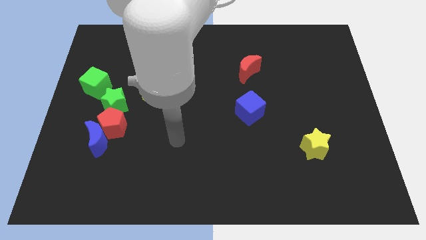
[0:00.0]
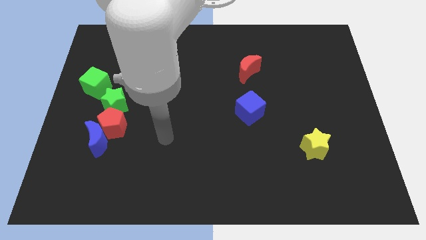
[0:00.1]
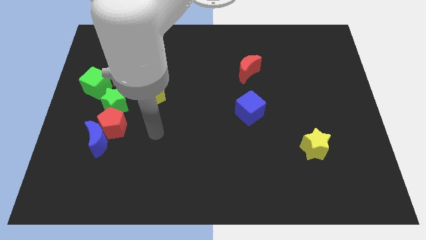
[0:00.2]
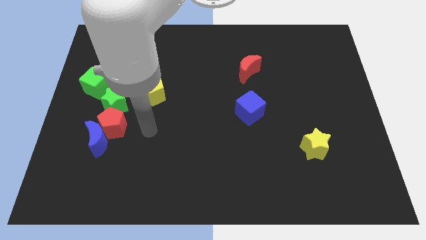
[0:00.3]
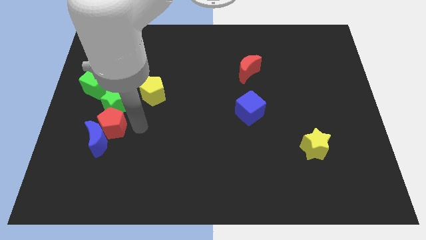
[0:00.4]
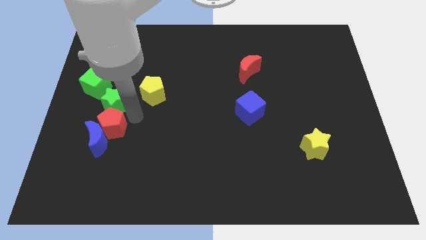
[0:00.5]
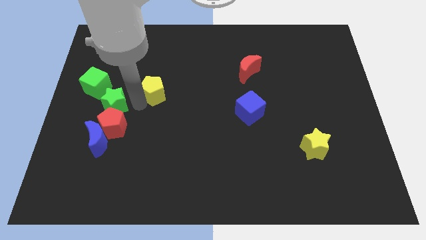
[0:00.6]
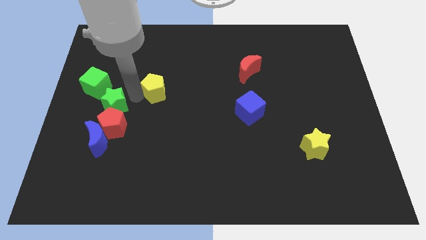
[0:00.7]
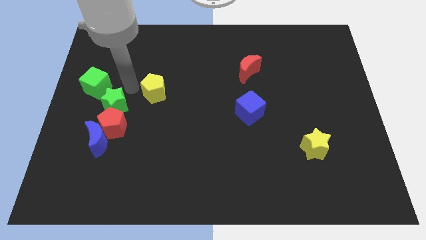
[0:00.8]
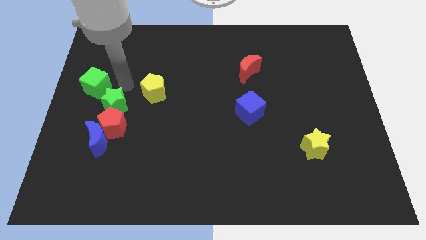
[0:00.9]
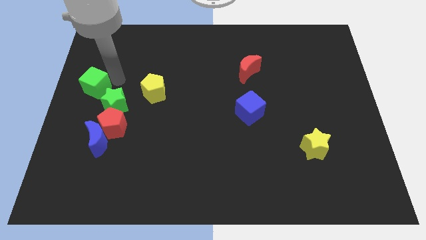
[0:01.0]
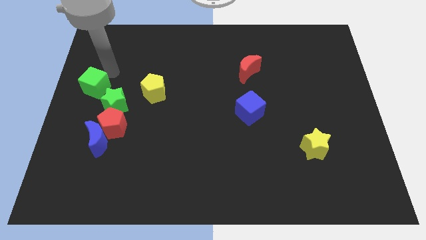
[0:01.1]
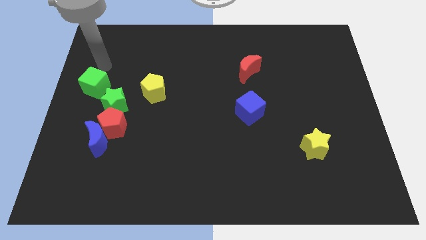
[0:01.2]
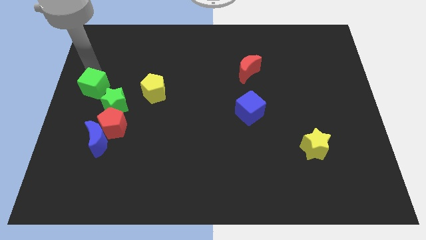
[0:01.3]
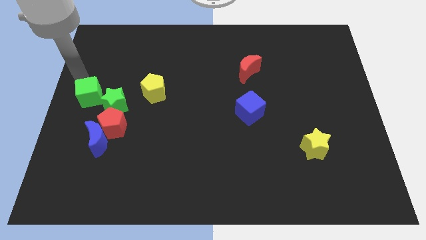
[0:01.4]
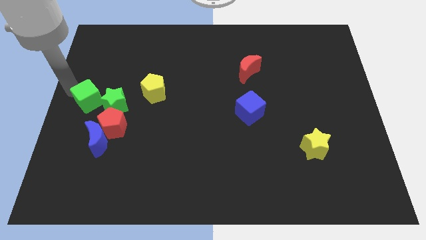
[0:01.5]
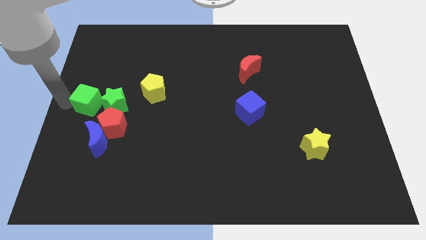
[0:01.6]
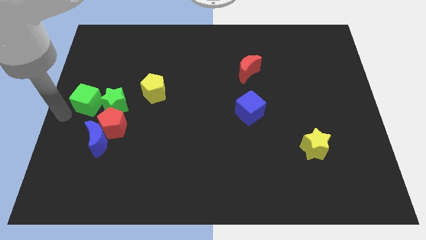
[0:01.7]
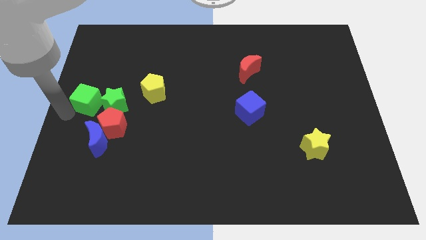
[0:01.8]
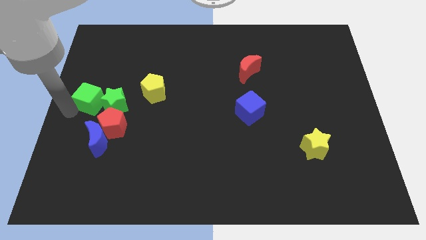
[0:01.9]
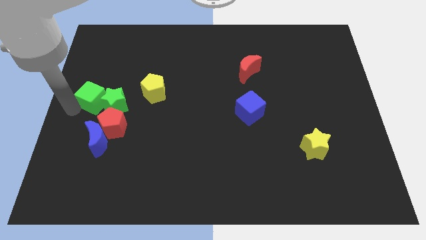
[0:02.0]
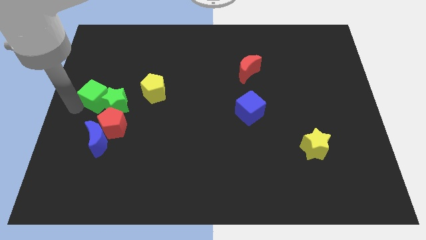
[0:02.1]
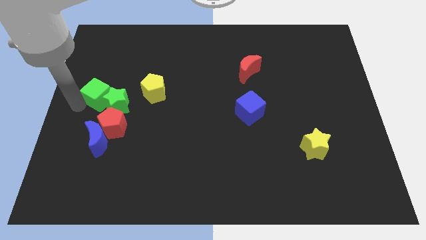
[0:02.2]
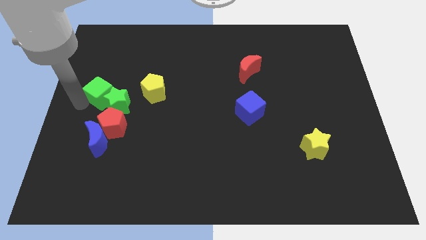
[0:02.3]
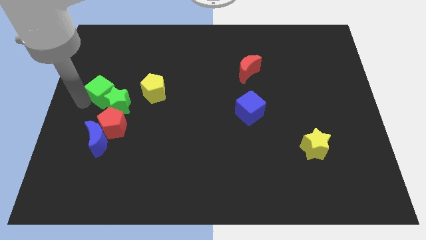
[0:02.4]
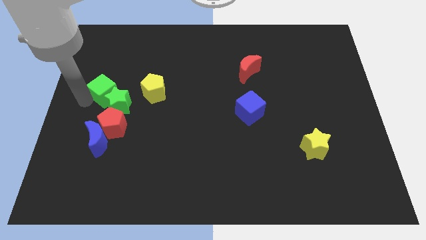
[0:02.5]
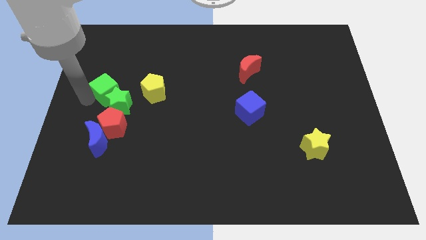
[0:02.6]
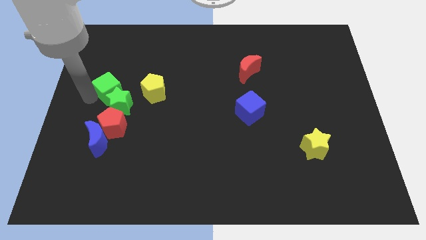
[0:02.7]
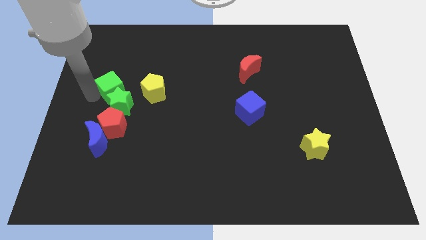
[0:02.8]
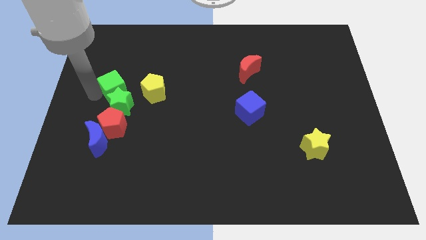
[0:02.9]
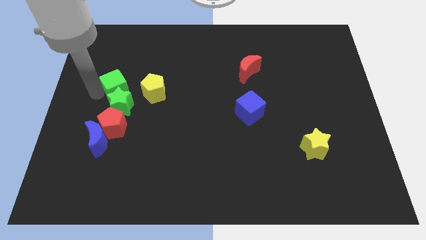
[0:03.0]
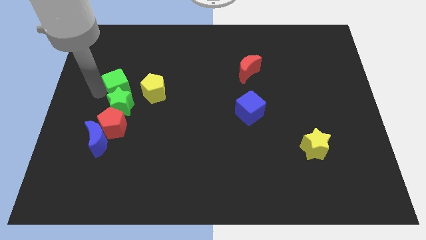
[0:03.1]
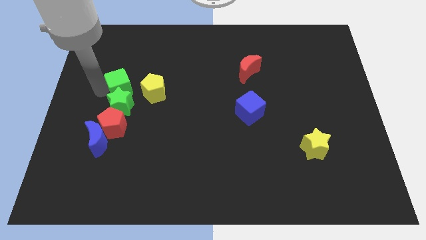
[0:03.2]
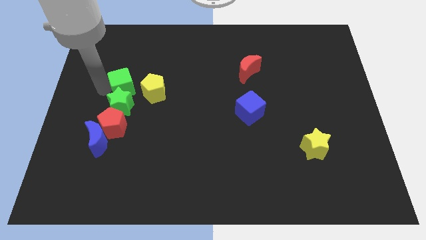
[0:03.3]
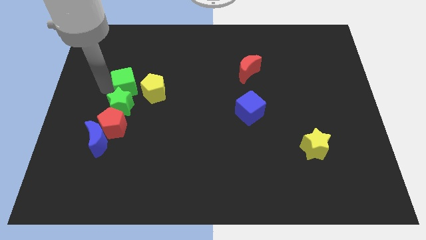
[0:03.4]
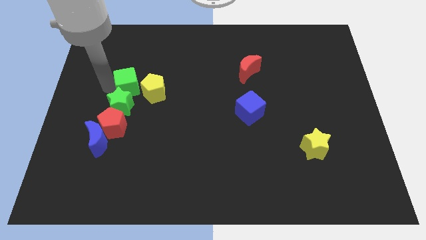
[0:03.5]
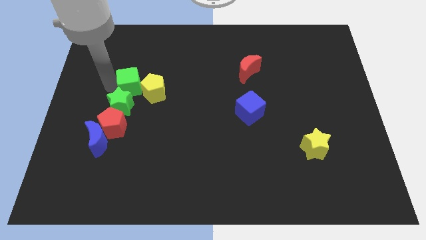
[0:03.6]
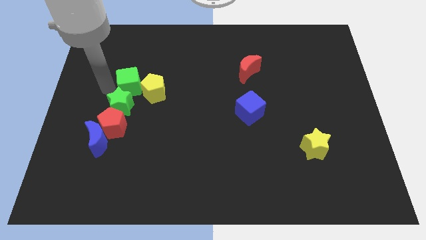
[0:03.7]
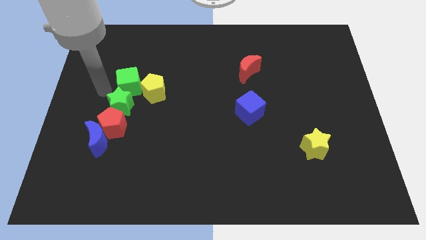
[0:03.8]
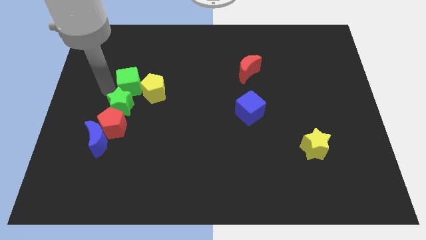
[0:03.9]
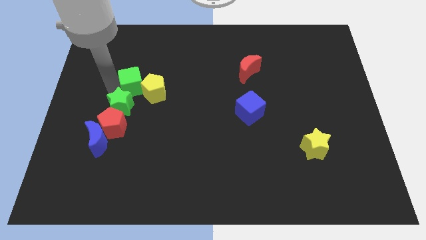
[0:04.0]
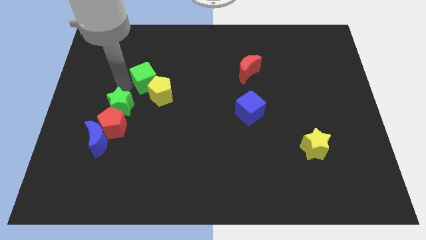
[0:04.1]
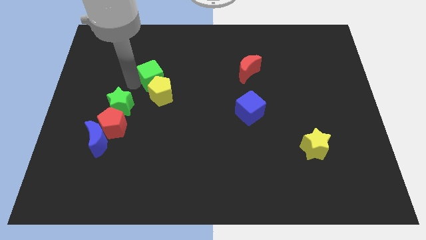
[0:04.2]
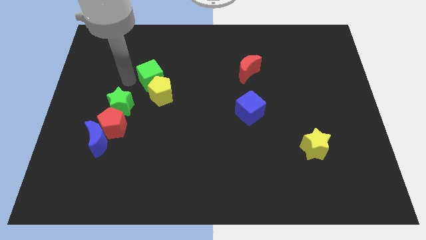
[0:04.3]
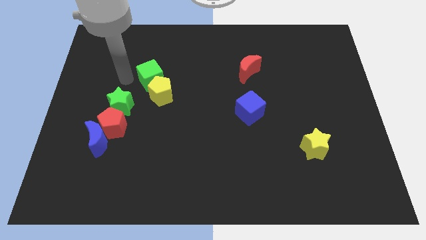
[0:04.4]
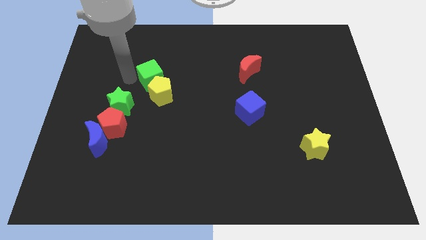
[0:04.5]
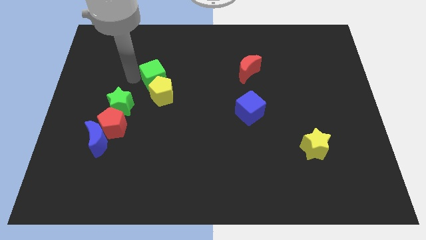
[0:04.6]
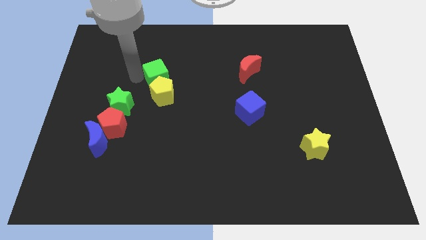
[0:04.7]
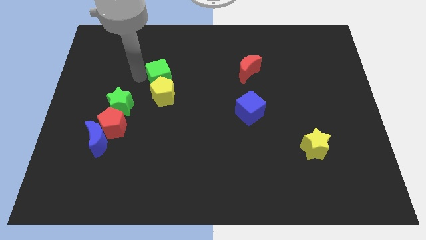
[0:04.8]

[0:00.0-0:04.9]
slide the green cube to the top right of the yellow pentagon

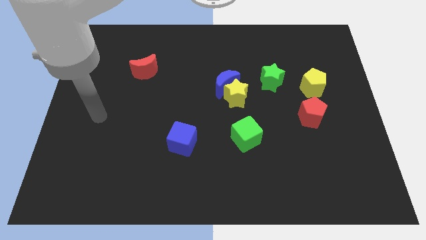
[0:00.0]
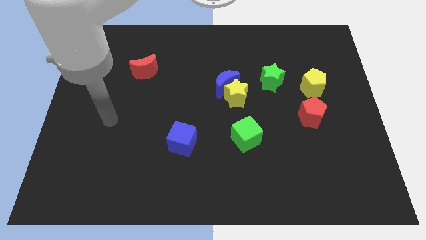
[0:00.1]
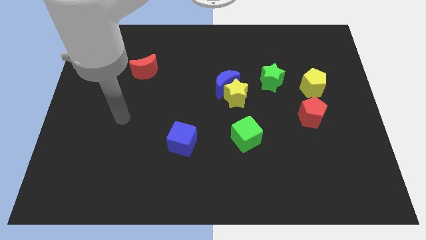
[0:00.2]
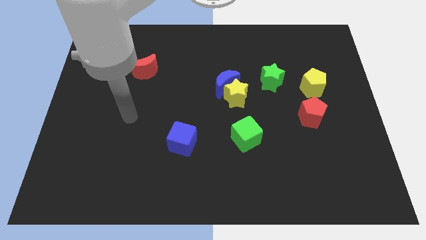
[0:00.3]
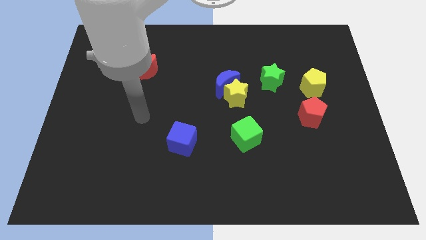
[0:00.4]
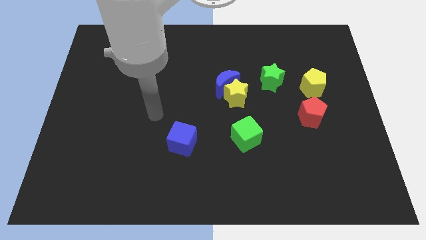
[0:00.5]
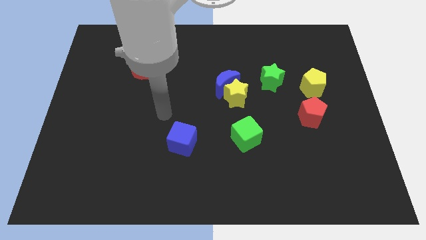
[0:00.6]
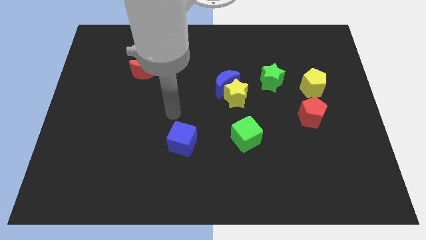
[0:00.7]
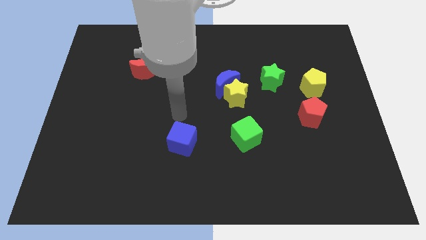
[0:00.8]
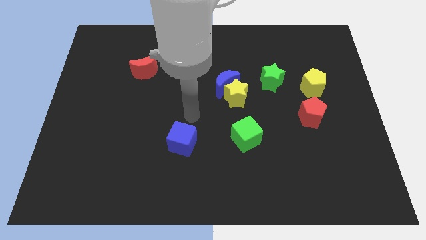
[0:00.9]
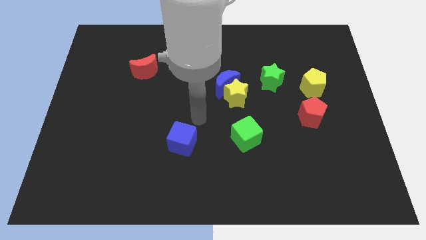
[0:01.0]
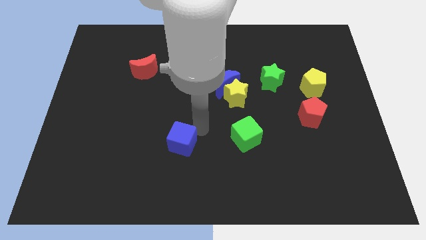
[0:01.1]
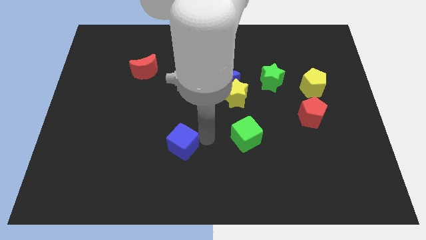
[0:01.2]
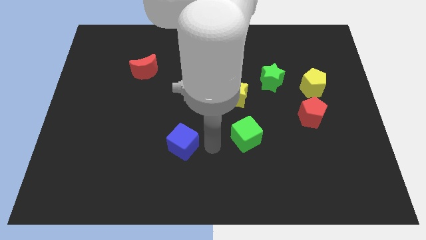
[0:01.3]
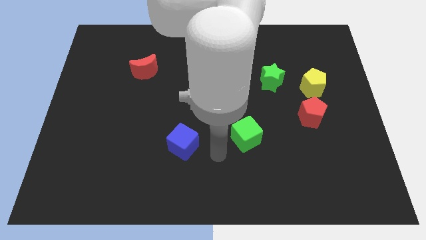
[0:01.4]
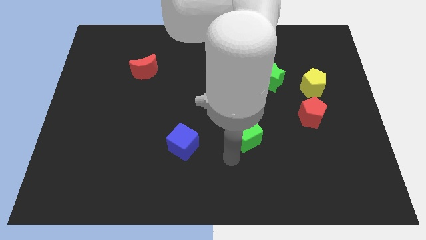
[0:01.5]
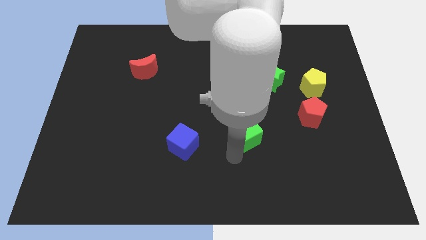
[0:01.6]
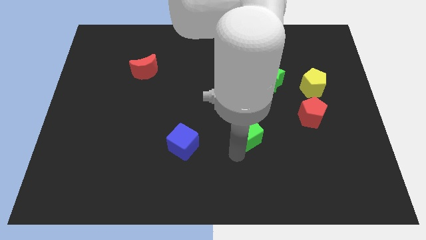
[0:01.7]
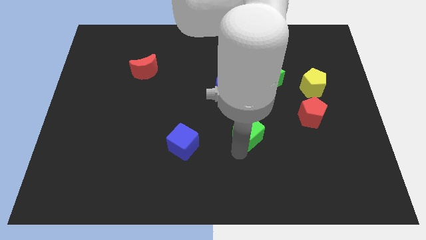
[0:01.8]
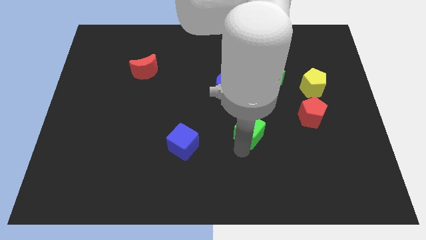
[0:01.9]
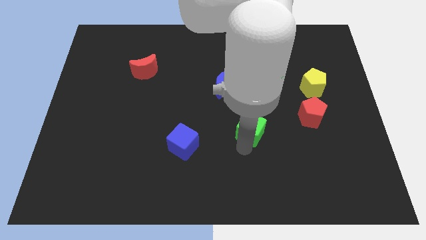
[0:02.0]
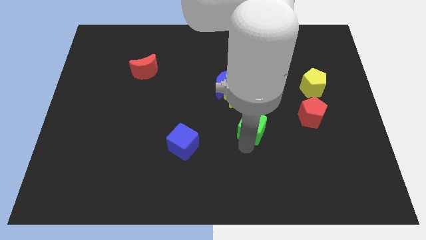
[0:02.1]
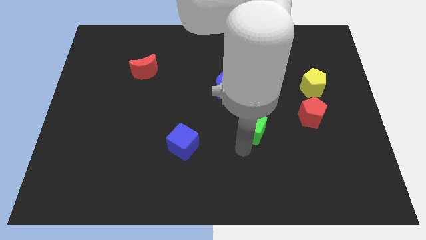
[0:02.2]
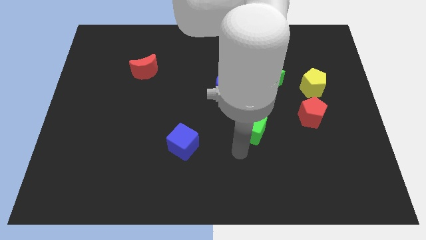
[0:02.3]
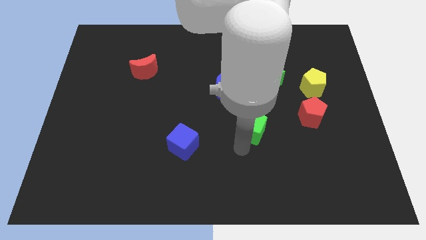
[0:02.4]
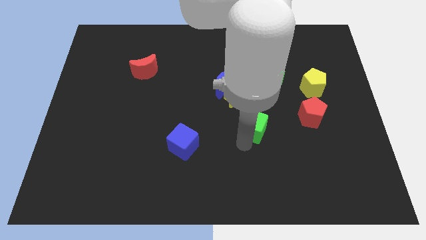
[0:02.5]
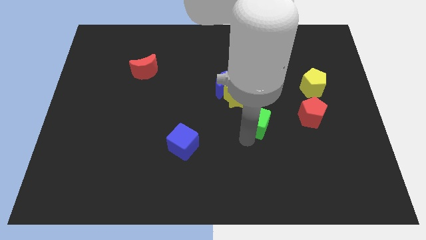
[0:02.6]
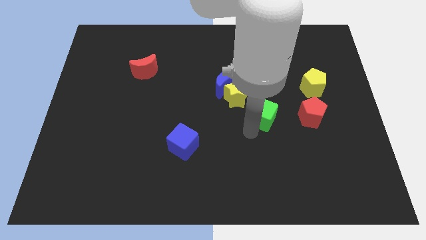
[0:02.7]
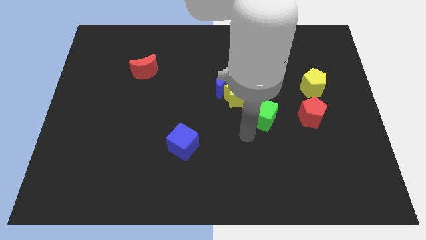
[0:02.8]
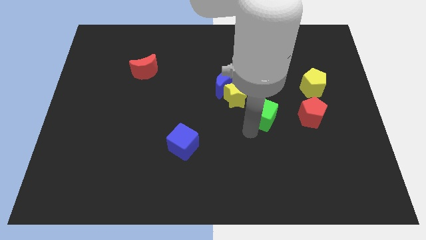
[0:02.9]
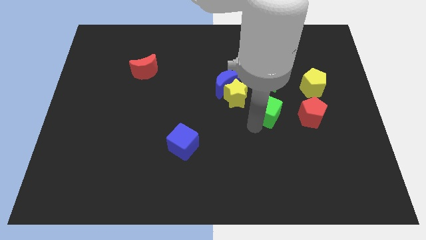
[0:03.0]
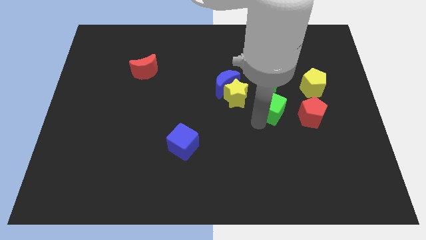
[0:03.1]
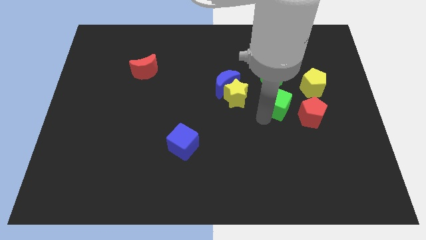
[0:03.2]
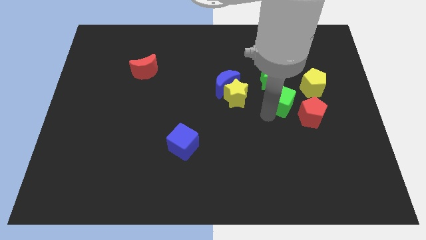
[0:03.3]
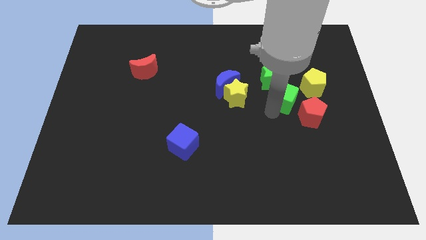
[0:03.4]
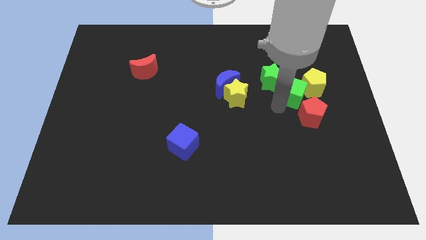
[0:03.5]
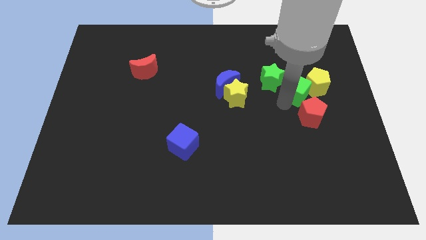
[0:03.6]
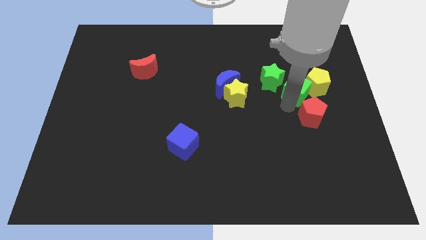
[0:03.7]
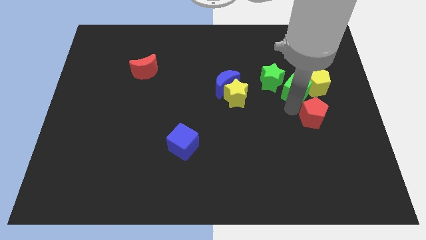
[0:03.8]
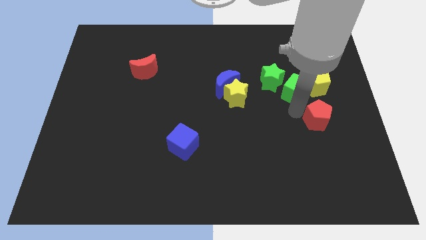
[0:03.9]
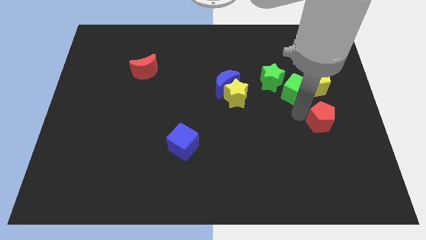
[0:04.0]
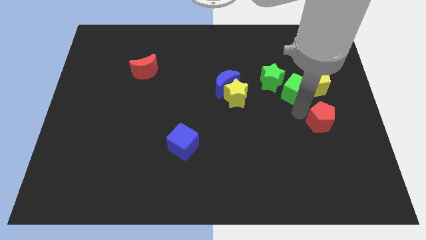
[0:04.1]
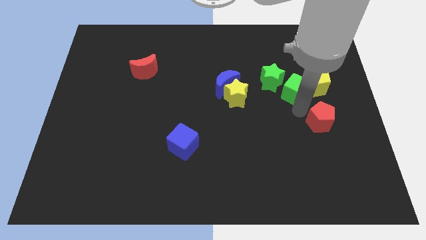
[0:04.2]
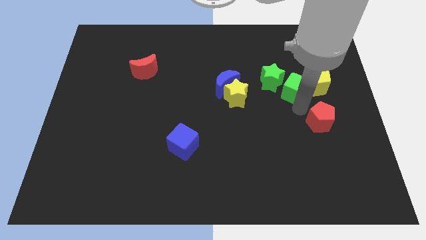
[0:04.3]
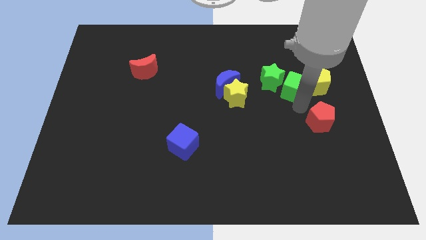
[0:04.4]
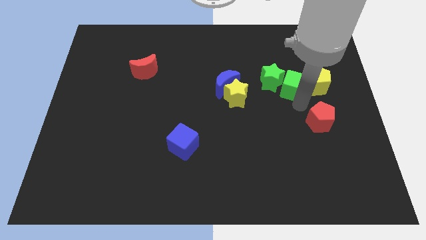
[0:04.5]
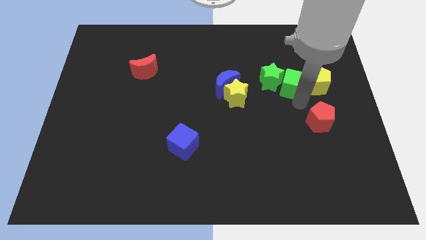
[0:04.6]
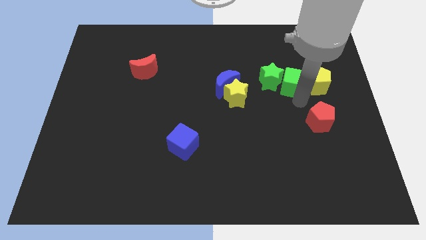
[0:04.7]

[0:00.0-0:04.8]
slide the green cube diagonally up and to the right of the green star
